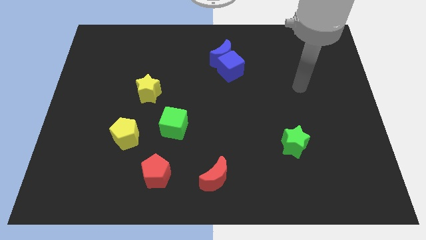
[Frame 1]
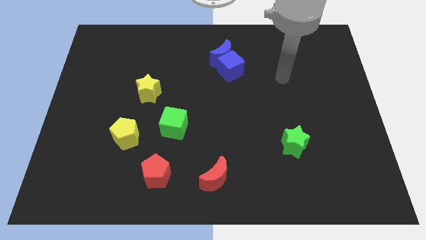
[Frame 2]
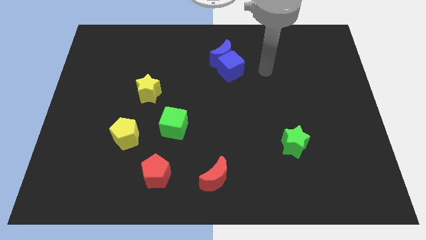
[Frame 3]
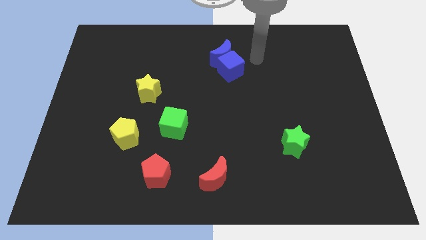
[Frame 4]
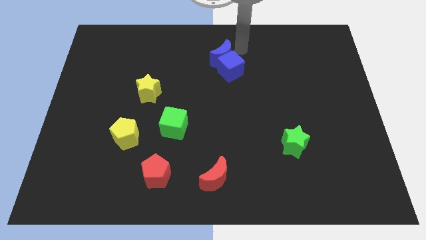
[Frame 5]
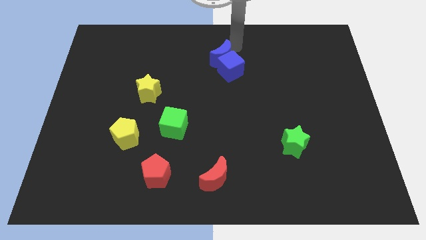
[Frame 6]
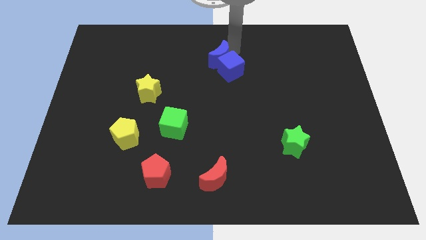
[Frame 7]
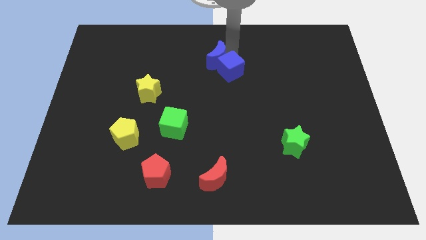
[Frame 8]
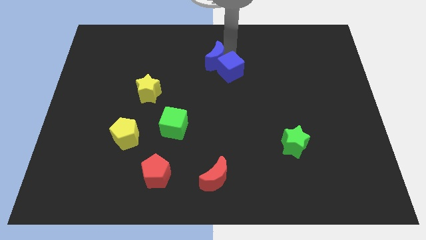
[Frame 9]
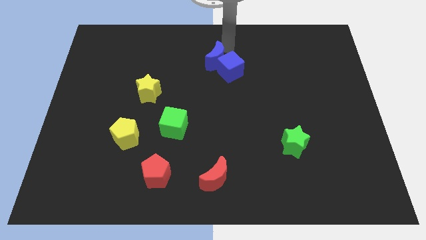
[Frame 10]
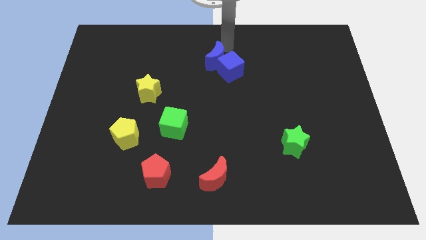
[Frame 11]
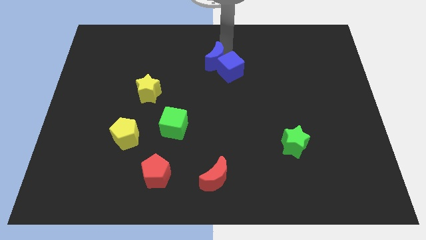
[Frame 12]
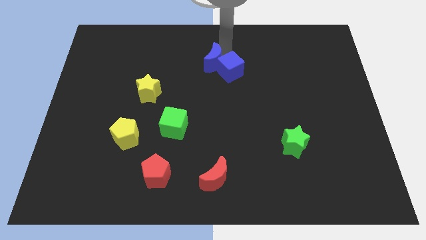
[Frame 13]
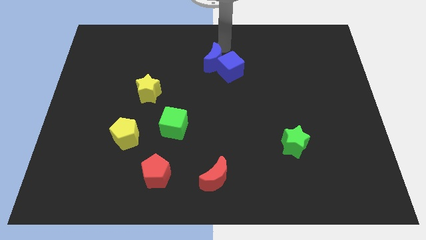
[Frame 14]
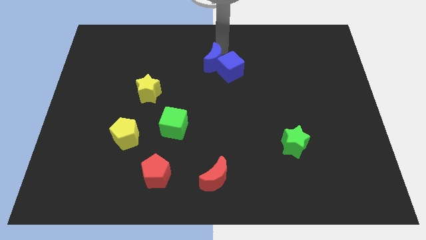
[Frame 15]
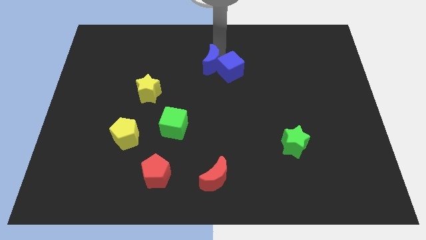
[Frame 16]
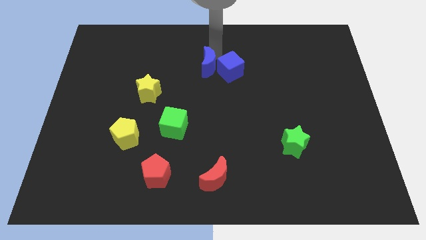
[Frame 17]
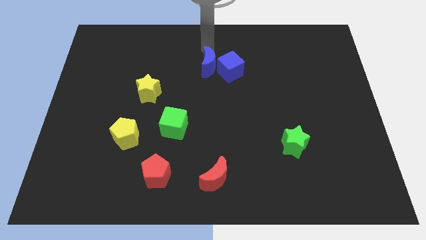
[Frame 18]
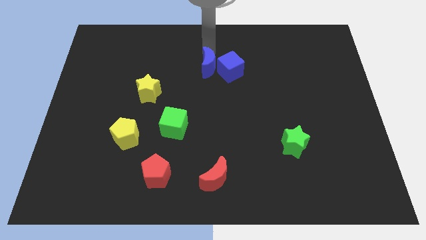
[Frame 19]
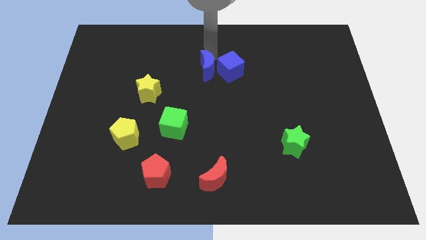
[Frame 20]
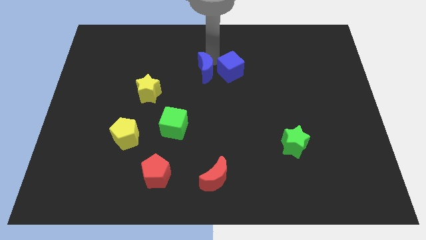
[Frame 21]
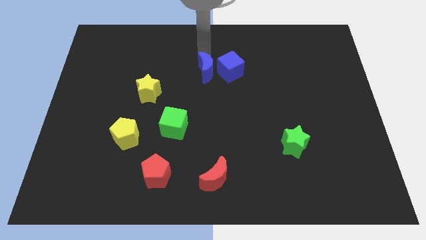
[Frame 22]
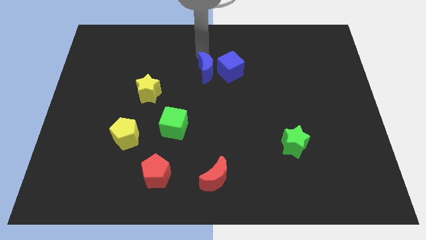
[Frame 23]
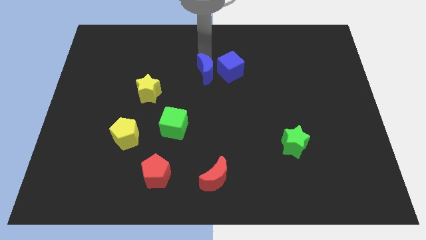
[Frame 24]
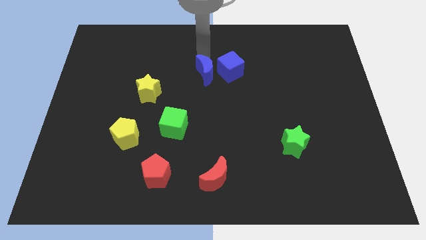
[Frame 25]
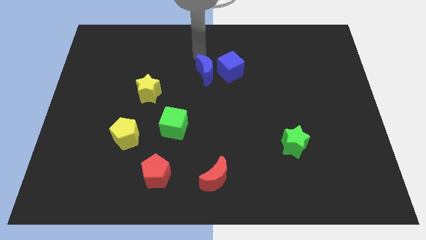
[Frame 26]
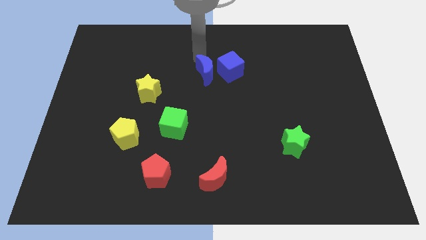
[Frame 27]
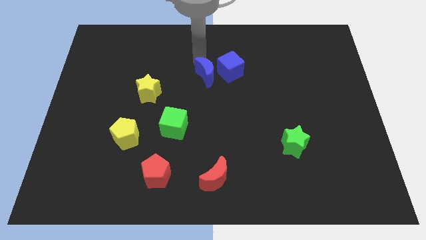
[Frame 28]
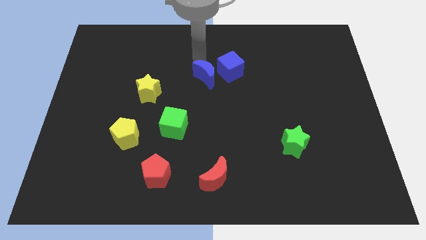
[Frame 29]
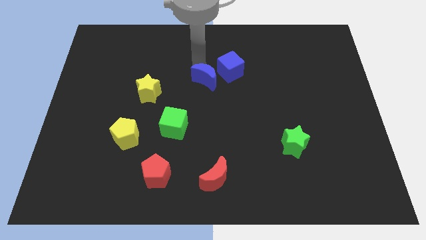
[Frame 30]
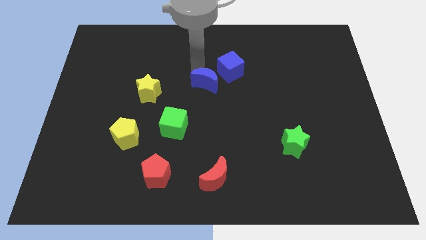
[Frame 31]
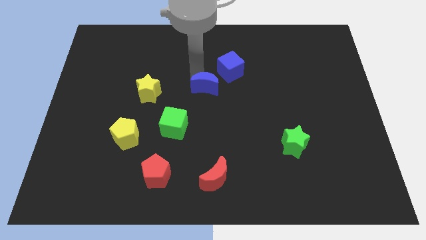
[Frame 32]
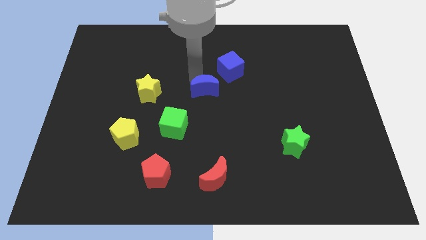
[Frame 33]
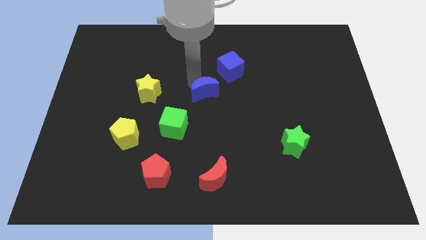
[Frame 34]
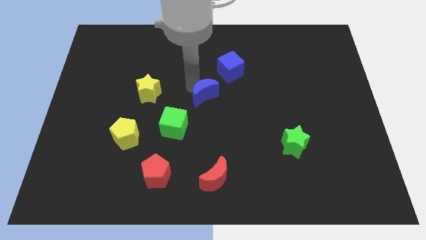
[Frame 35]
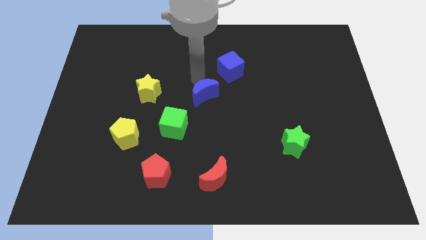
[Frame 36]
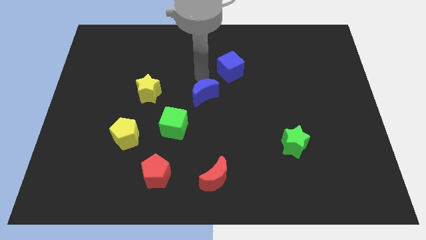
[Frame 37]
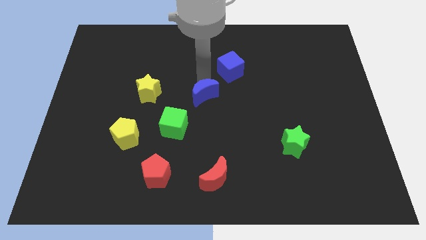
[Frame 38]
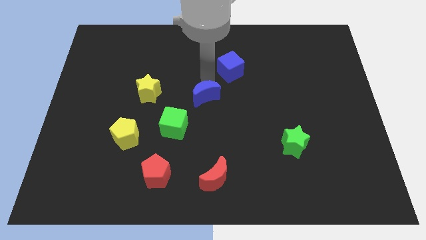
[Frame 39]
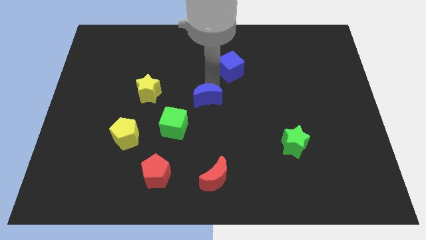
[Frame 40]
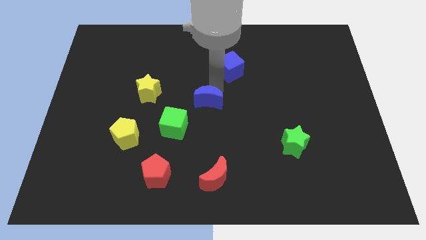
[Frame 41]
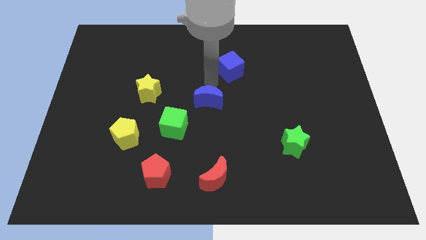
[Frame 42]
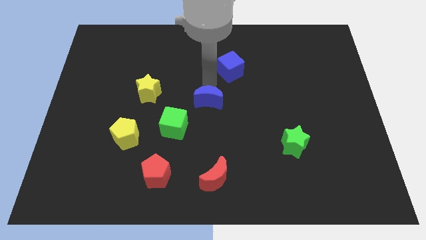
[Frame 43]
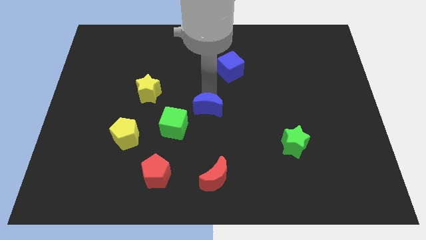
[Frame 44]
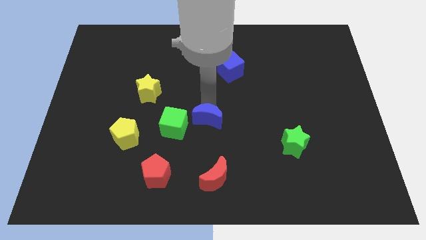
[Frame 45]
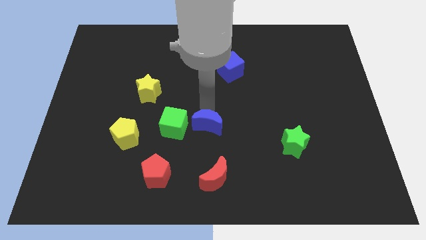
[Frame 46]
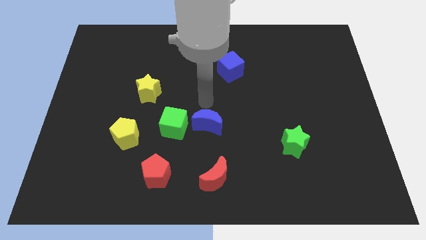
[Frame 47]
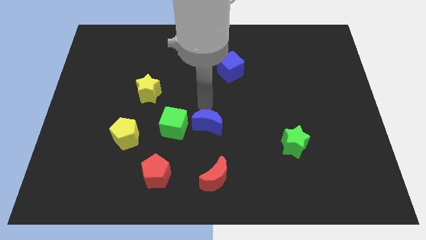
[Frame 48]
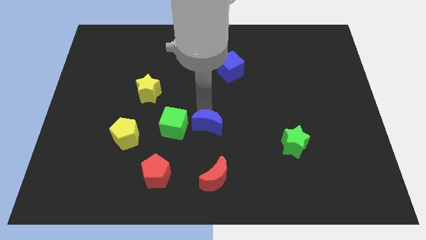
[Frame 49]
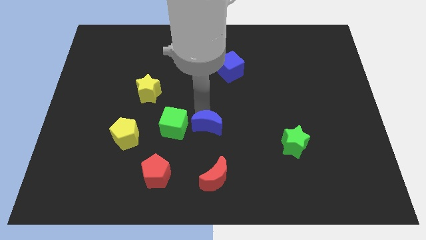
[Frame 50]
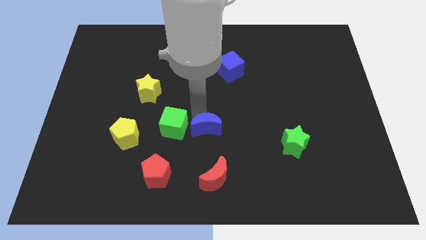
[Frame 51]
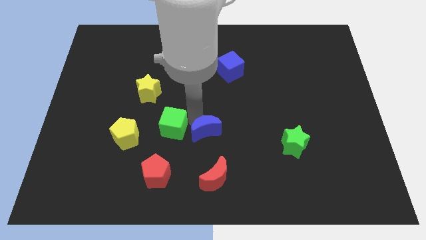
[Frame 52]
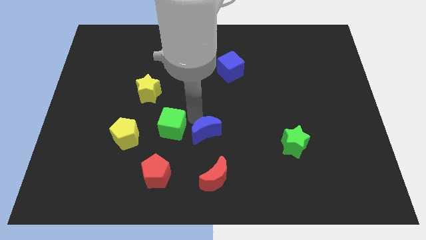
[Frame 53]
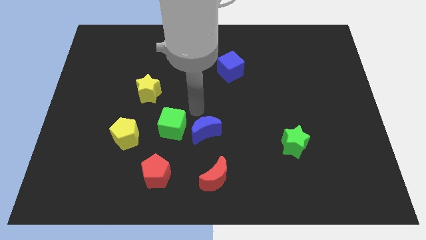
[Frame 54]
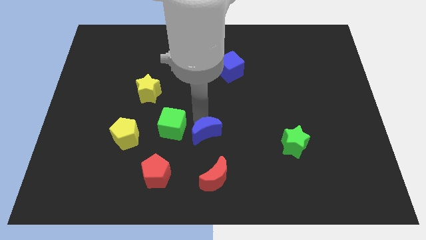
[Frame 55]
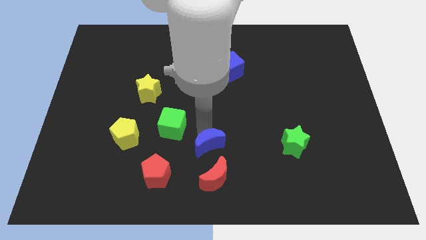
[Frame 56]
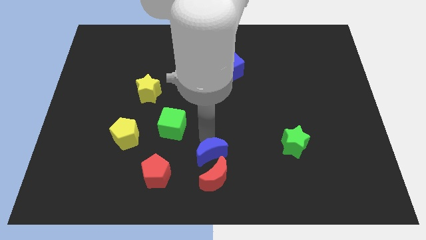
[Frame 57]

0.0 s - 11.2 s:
put the blue moon next to the red moon

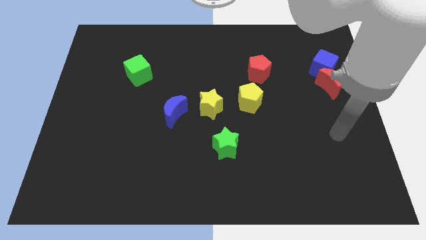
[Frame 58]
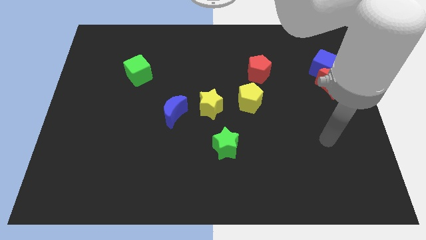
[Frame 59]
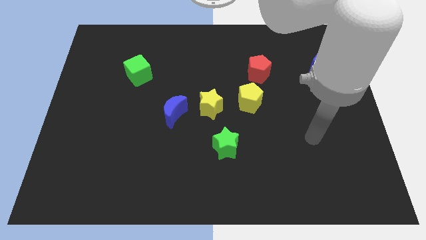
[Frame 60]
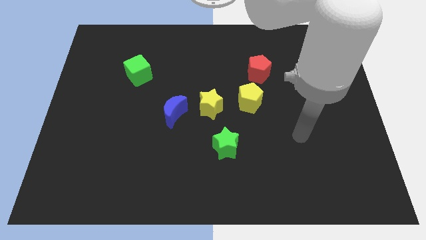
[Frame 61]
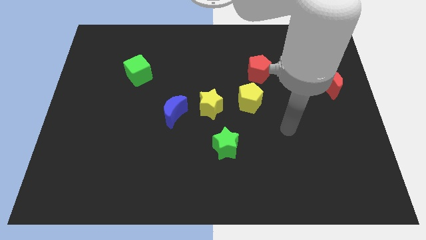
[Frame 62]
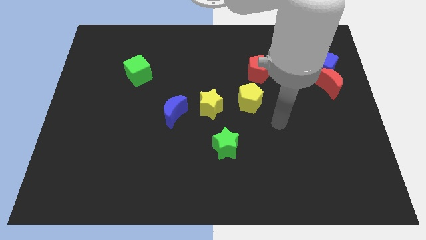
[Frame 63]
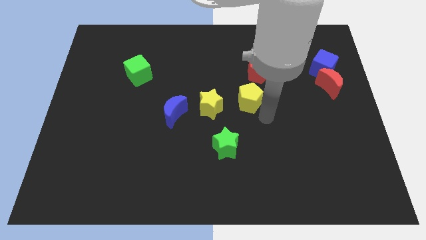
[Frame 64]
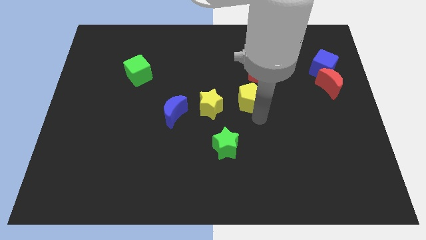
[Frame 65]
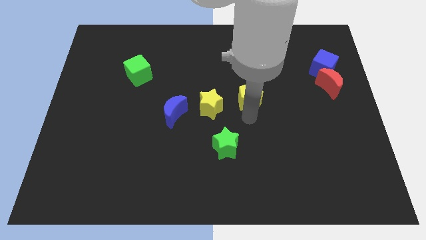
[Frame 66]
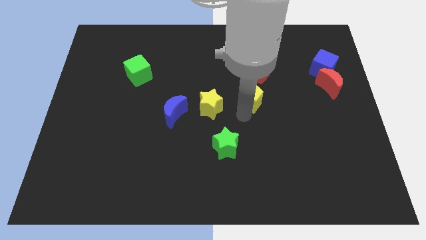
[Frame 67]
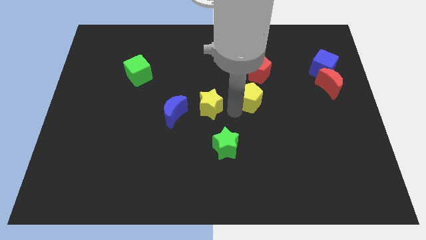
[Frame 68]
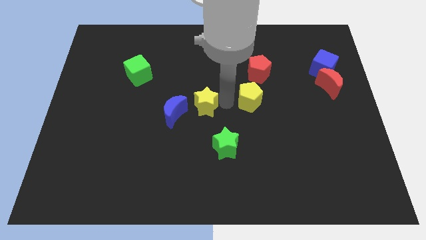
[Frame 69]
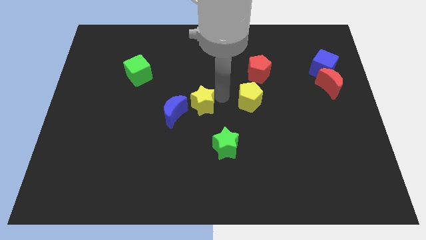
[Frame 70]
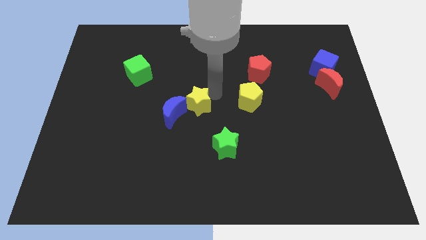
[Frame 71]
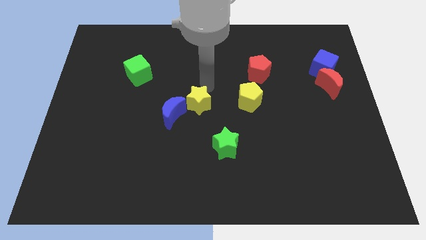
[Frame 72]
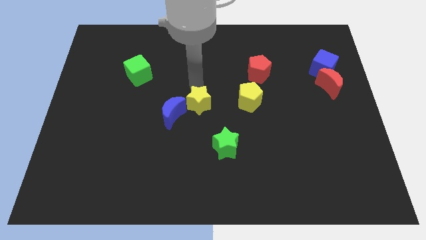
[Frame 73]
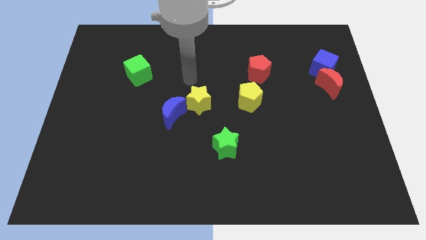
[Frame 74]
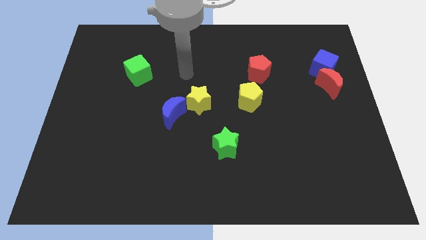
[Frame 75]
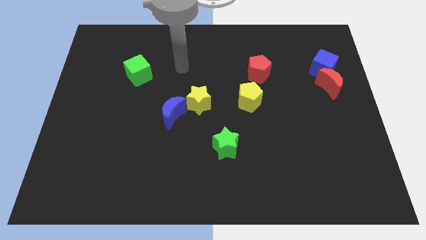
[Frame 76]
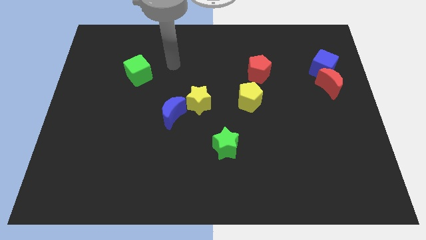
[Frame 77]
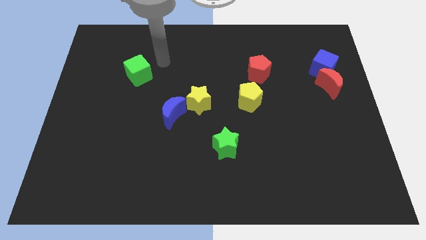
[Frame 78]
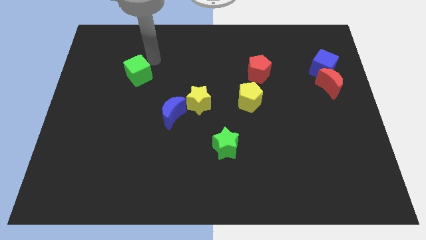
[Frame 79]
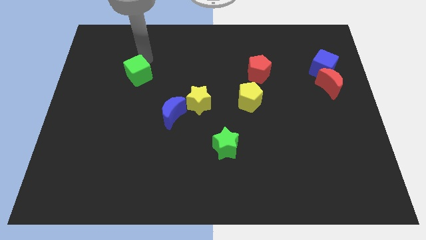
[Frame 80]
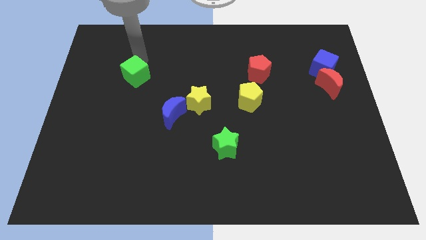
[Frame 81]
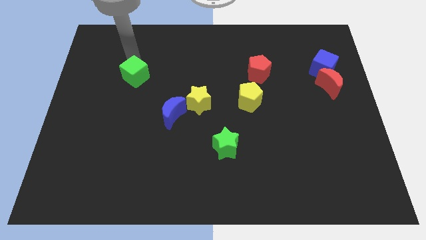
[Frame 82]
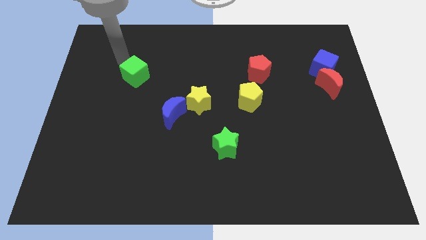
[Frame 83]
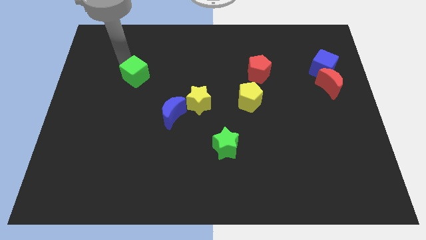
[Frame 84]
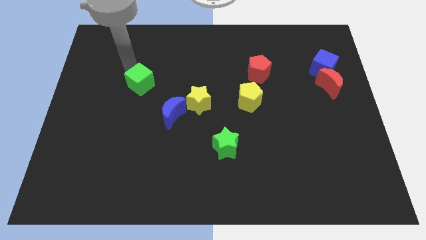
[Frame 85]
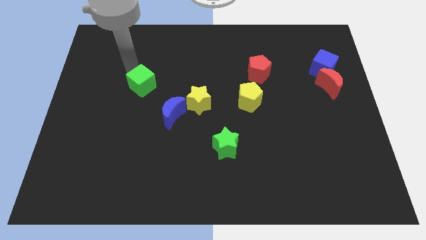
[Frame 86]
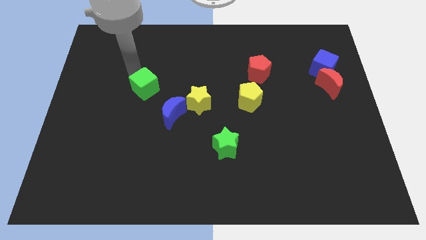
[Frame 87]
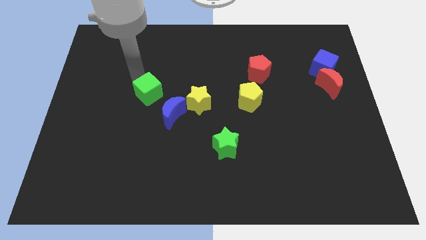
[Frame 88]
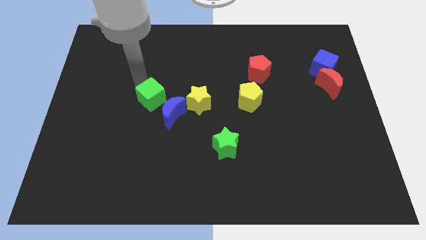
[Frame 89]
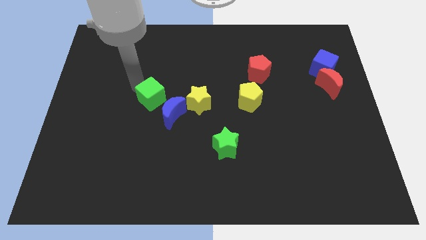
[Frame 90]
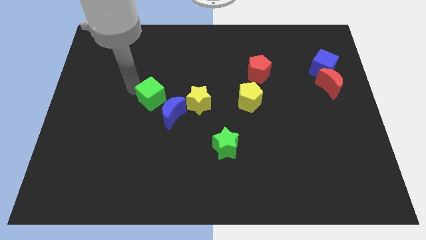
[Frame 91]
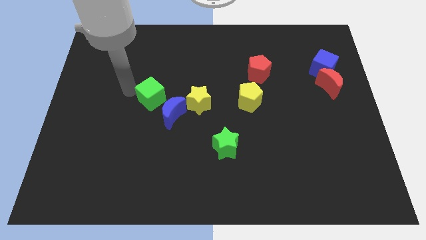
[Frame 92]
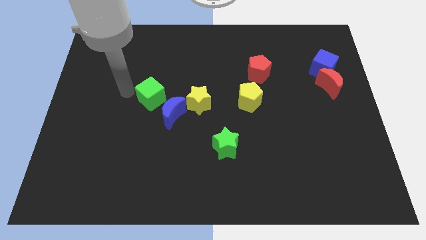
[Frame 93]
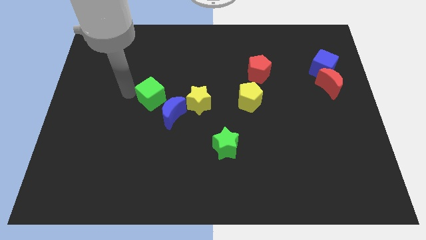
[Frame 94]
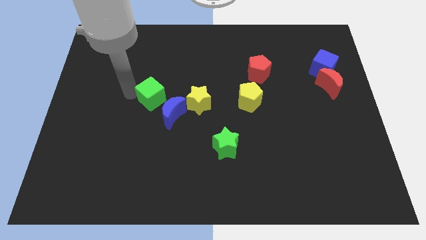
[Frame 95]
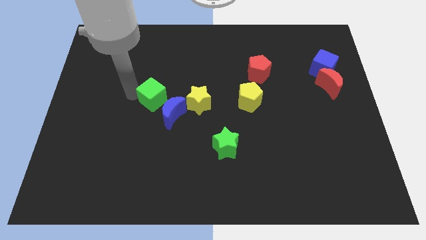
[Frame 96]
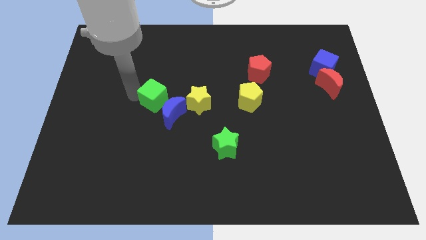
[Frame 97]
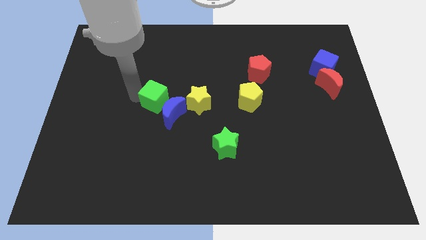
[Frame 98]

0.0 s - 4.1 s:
put the green cube close to the blue moon
